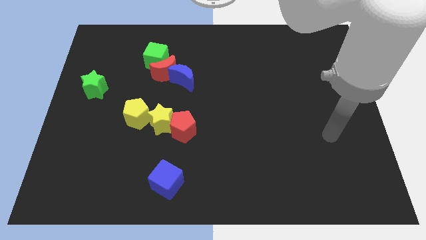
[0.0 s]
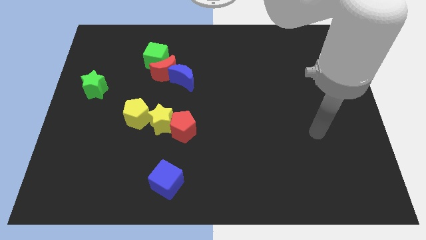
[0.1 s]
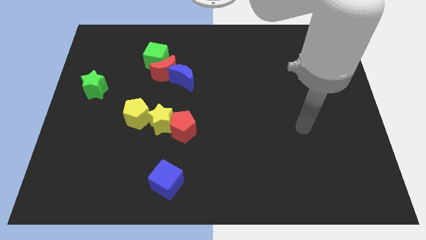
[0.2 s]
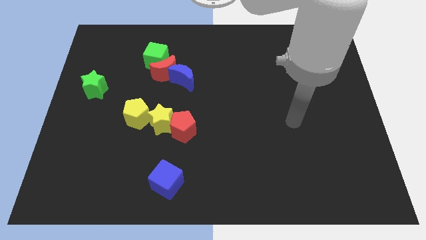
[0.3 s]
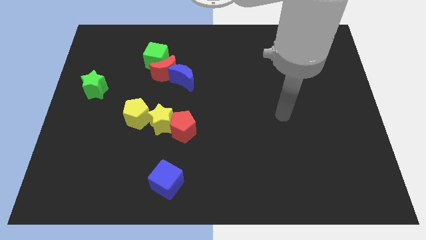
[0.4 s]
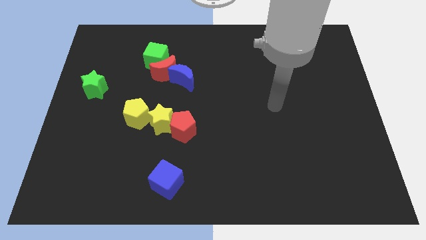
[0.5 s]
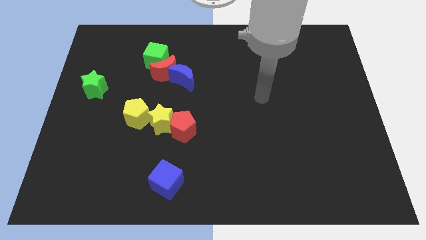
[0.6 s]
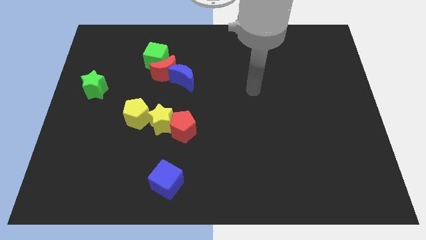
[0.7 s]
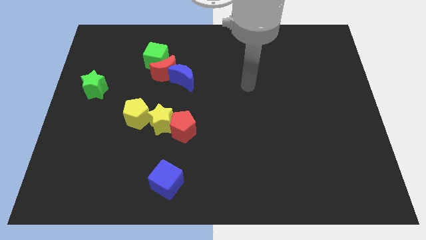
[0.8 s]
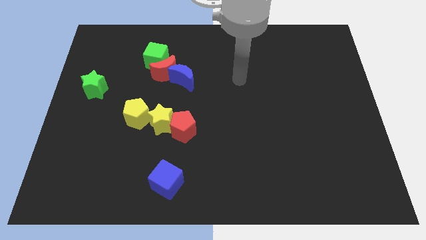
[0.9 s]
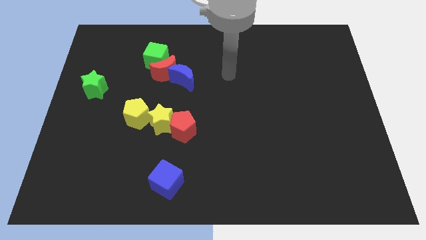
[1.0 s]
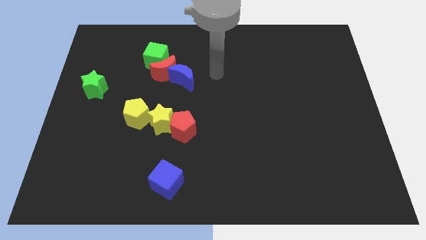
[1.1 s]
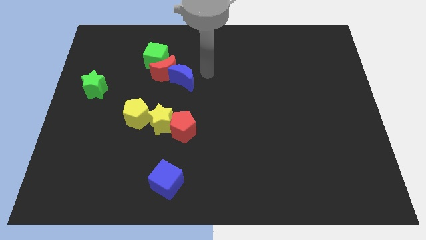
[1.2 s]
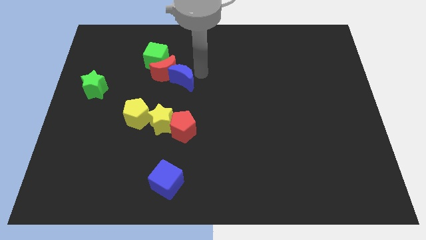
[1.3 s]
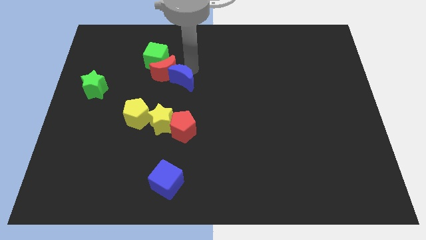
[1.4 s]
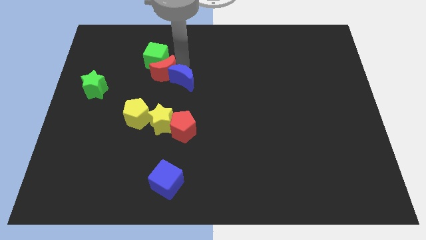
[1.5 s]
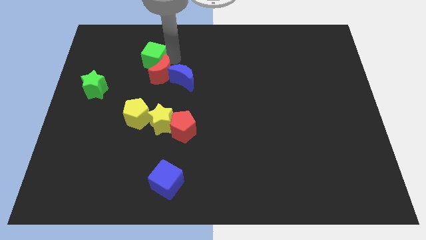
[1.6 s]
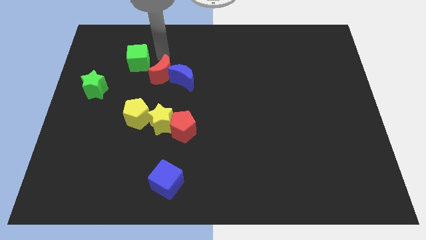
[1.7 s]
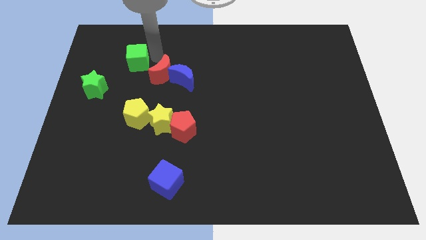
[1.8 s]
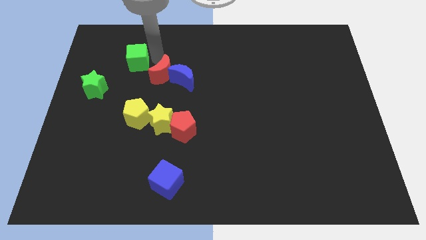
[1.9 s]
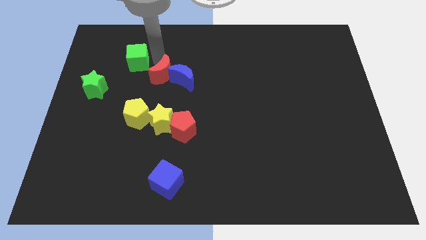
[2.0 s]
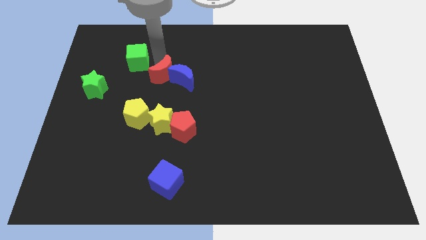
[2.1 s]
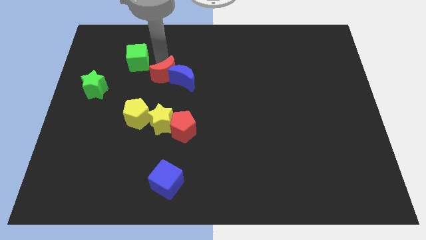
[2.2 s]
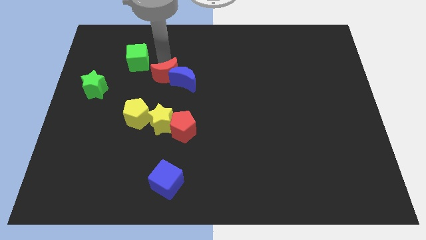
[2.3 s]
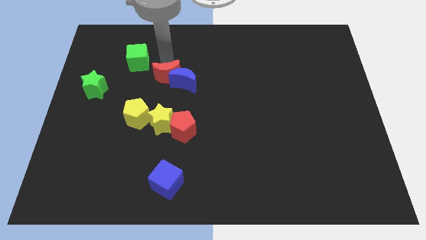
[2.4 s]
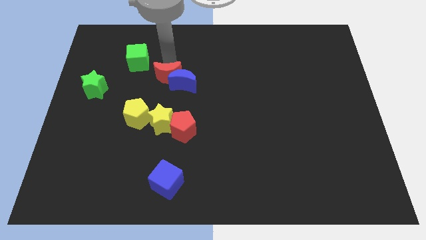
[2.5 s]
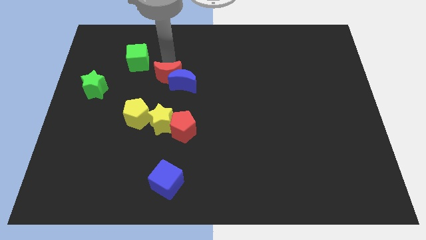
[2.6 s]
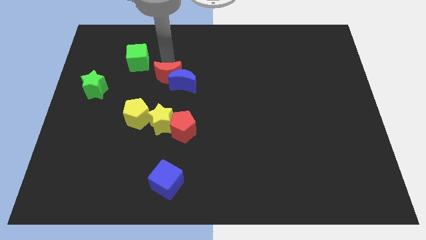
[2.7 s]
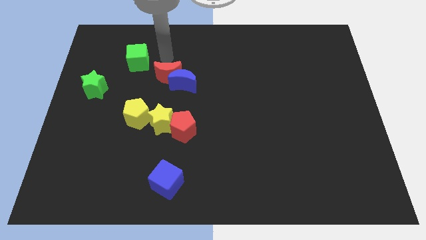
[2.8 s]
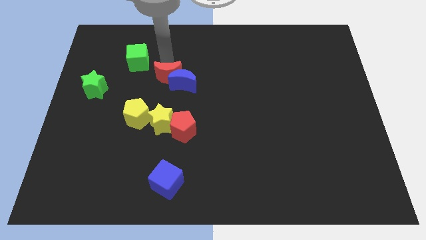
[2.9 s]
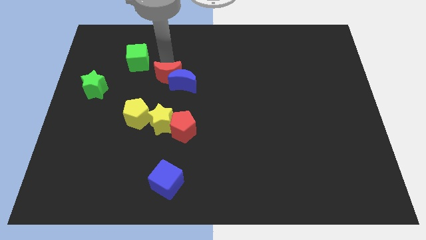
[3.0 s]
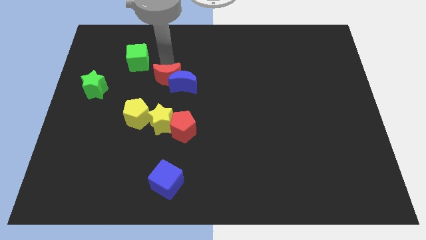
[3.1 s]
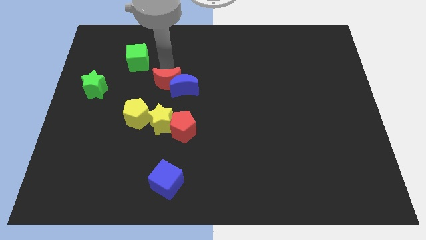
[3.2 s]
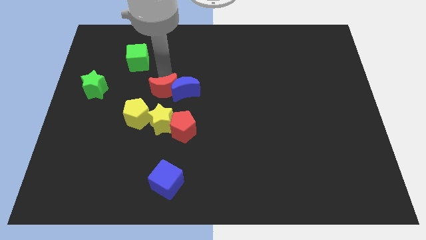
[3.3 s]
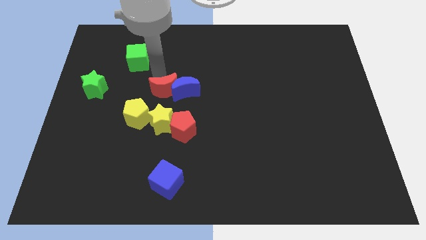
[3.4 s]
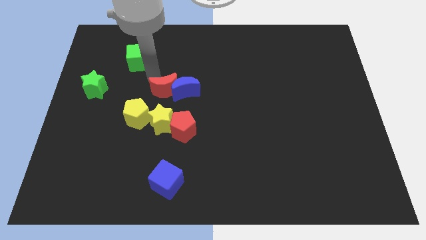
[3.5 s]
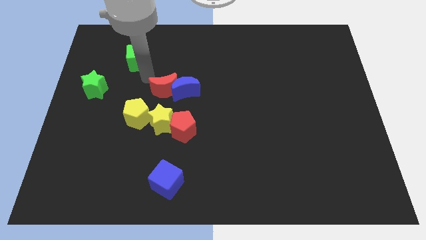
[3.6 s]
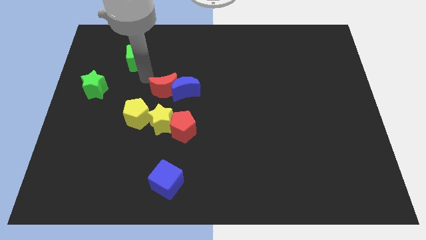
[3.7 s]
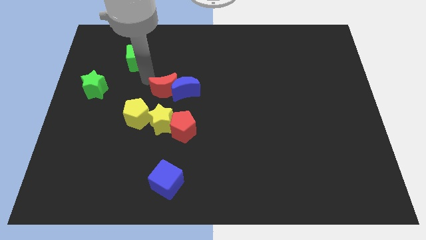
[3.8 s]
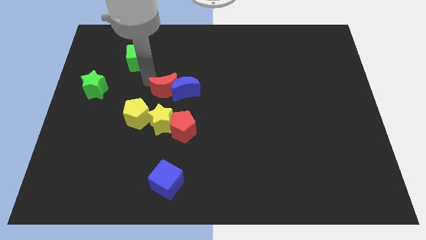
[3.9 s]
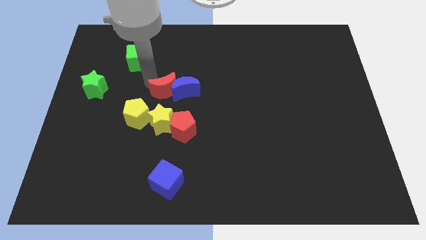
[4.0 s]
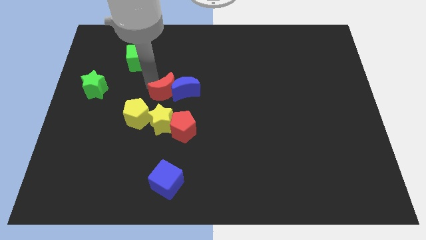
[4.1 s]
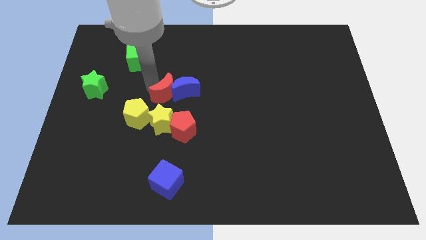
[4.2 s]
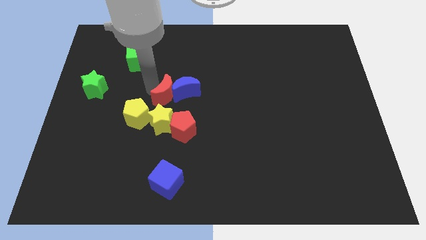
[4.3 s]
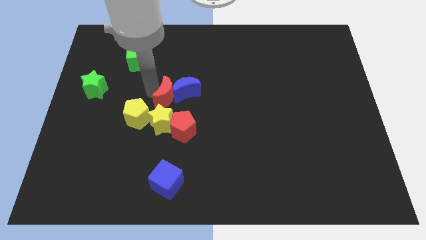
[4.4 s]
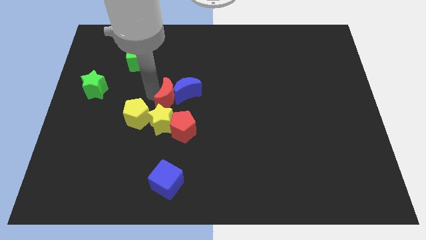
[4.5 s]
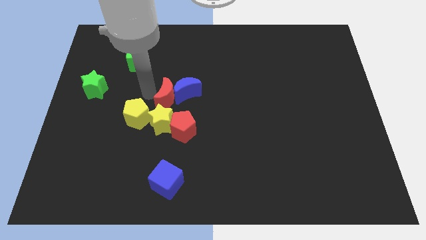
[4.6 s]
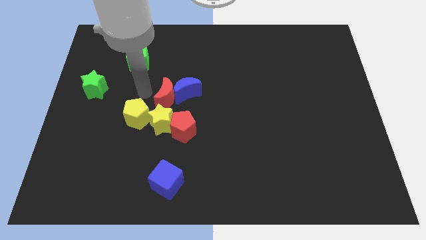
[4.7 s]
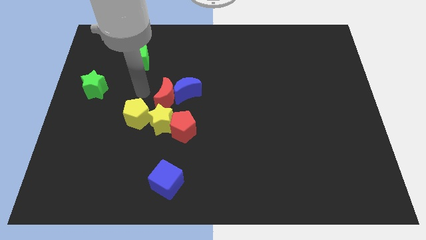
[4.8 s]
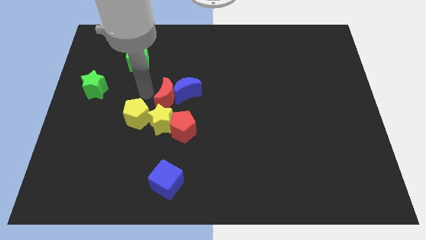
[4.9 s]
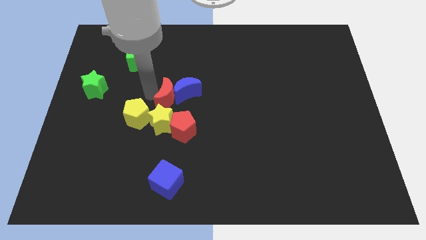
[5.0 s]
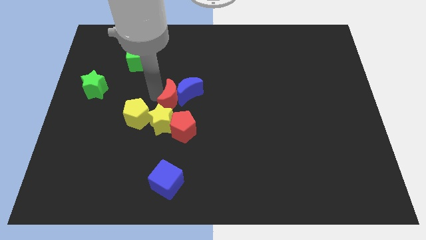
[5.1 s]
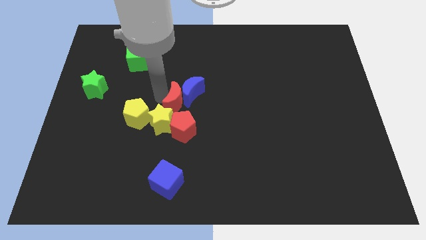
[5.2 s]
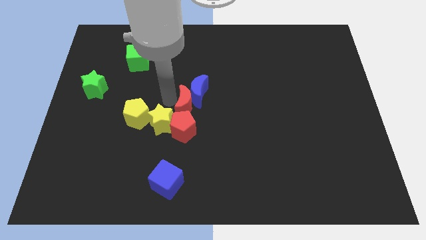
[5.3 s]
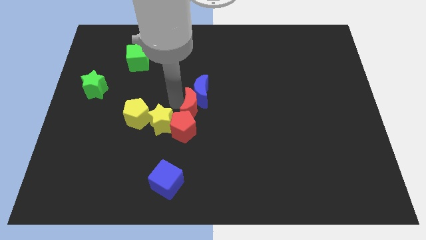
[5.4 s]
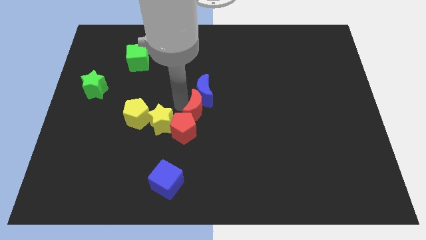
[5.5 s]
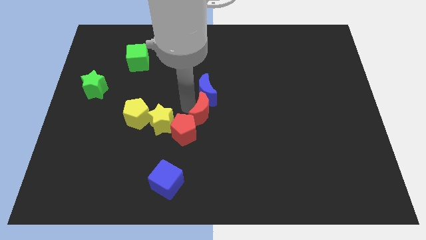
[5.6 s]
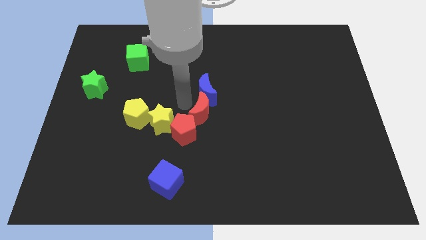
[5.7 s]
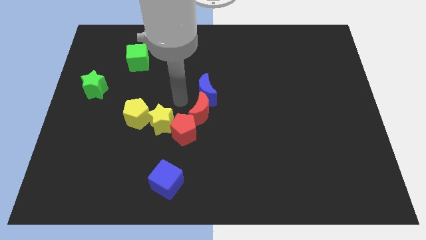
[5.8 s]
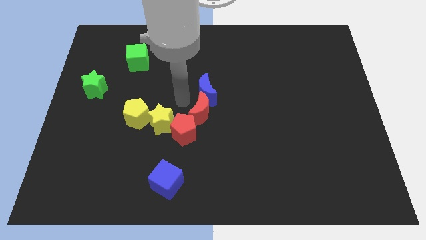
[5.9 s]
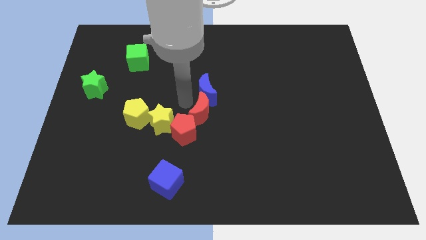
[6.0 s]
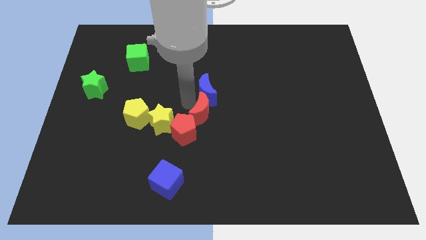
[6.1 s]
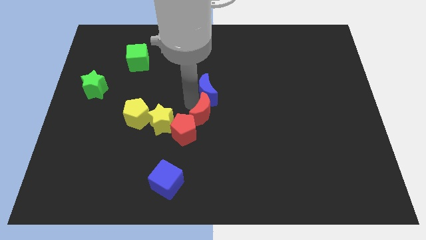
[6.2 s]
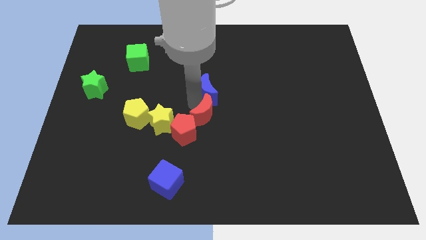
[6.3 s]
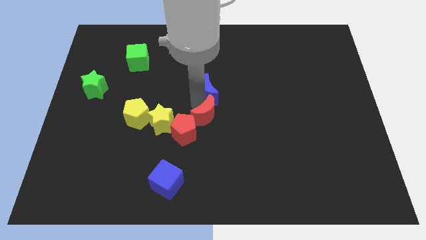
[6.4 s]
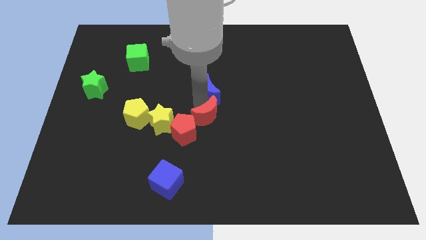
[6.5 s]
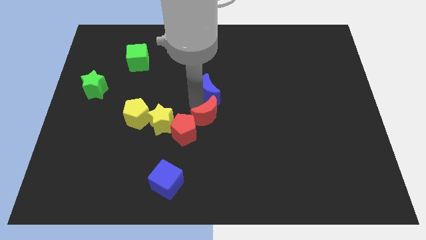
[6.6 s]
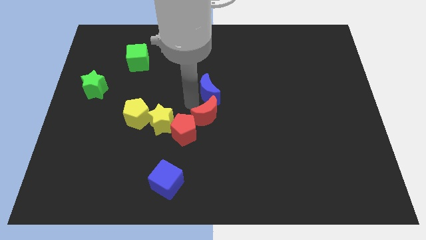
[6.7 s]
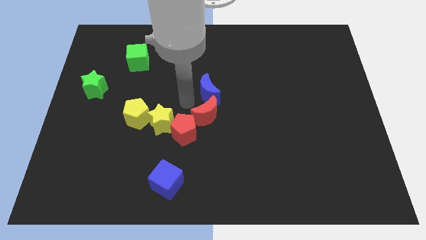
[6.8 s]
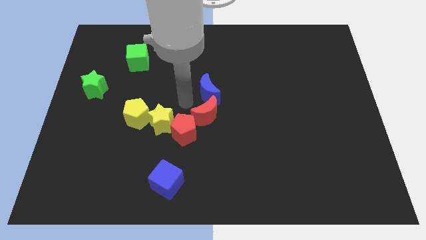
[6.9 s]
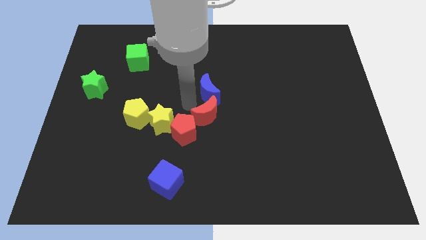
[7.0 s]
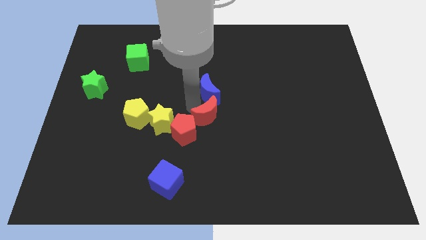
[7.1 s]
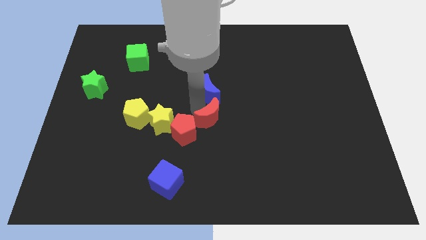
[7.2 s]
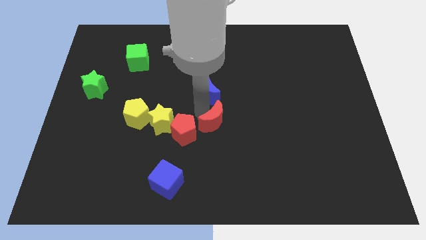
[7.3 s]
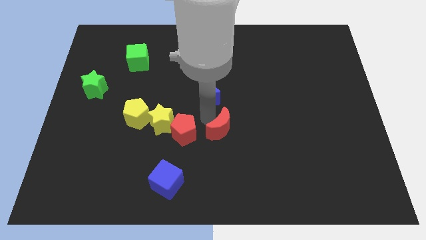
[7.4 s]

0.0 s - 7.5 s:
push the red moon diagonally downwards and right

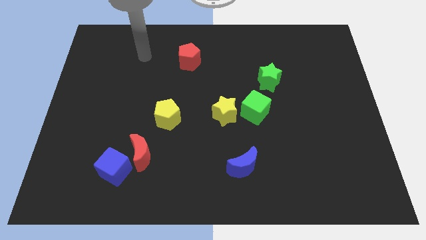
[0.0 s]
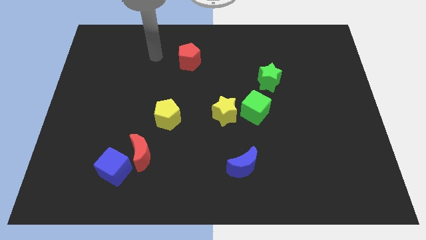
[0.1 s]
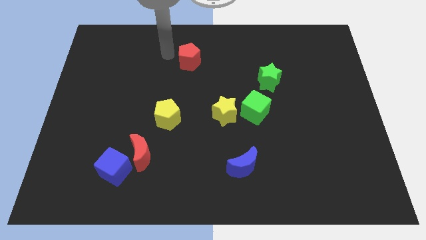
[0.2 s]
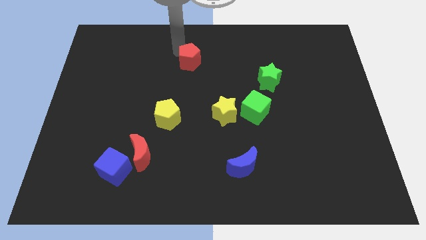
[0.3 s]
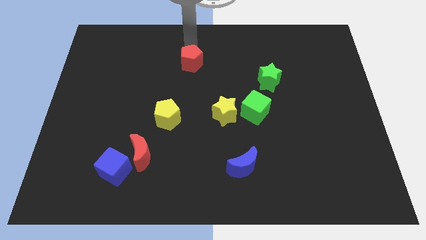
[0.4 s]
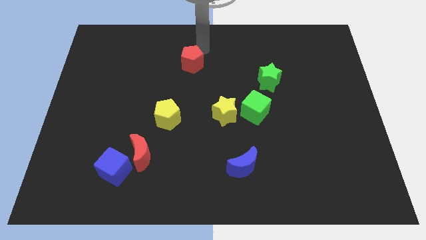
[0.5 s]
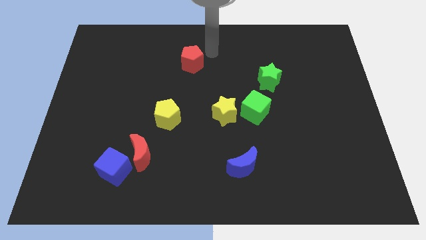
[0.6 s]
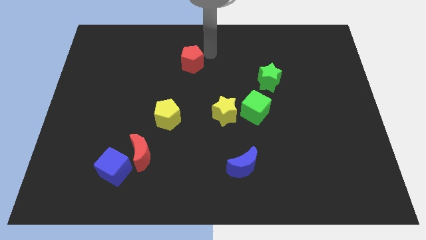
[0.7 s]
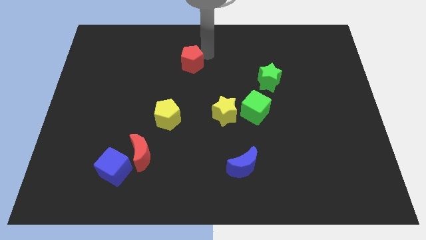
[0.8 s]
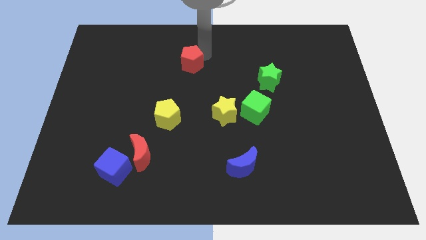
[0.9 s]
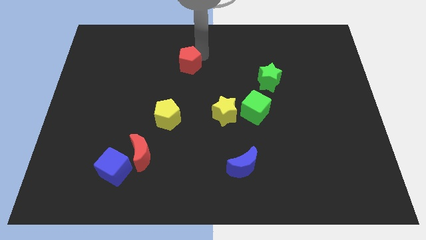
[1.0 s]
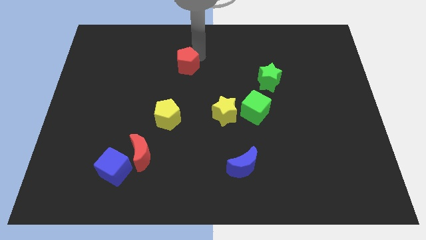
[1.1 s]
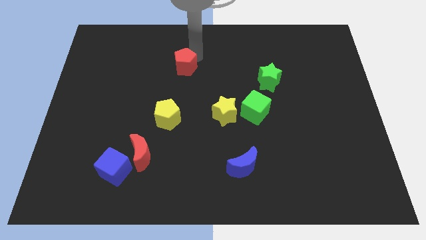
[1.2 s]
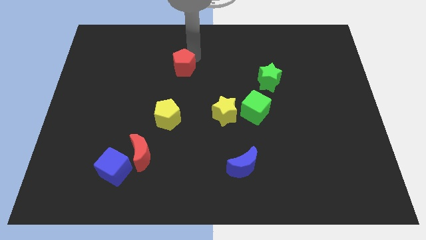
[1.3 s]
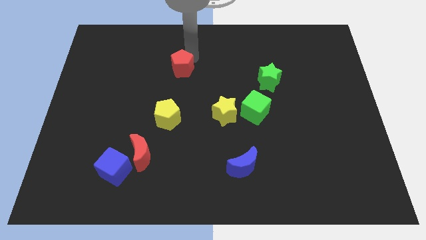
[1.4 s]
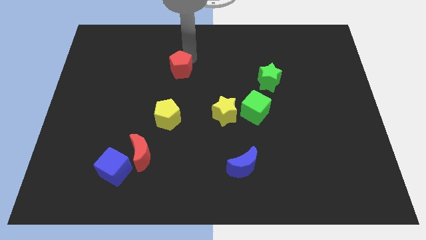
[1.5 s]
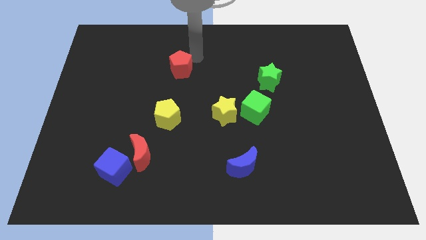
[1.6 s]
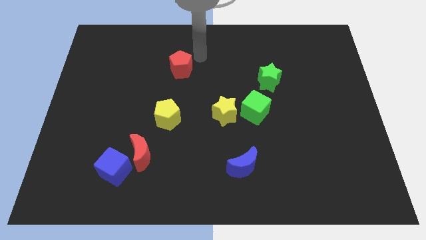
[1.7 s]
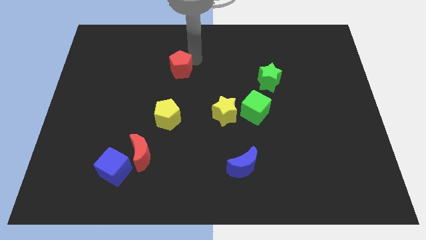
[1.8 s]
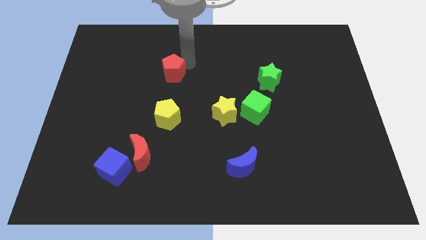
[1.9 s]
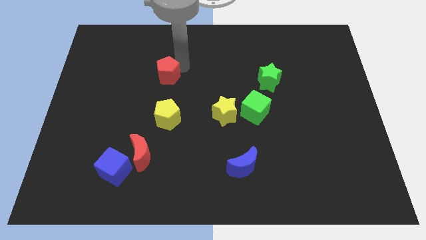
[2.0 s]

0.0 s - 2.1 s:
slightly push the red pentagon down and then to the left
